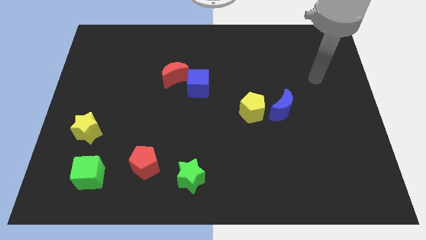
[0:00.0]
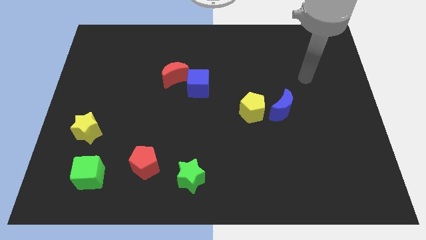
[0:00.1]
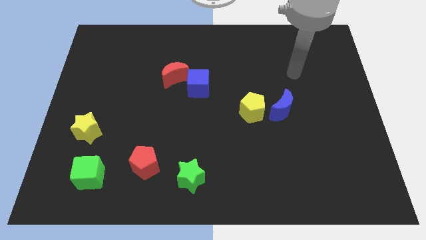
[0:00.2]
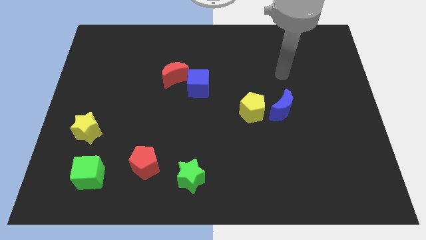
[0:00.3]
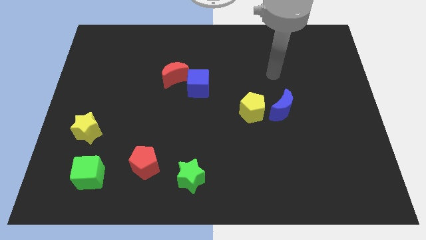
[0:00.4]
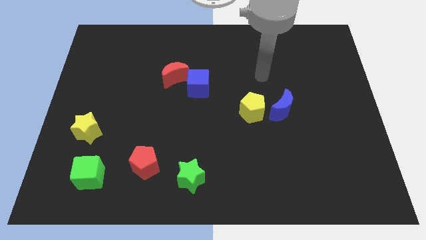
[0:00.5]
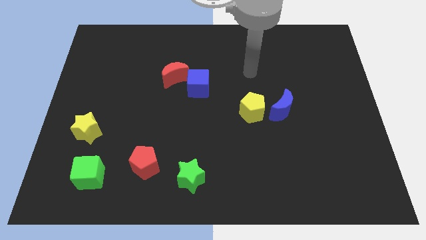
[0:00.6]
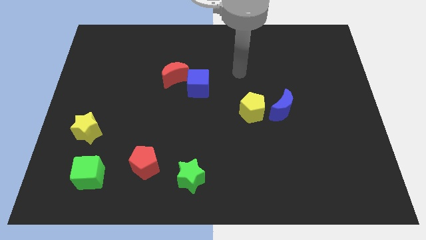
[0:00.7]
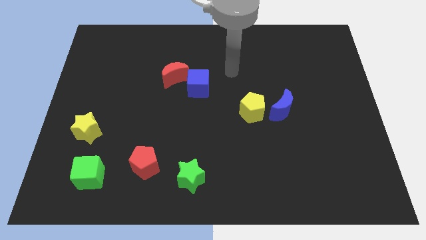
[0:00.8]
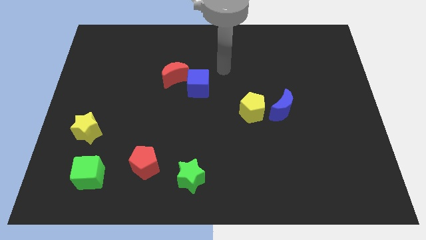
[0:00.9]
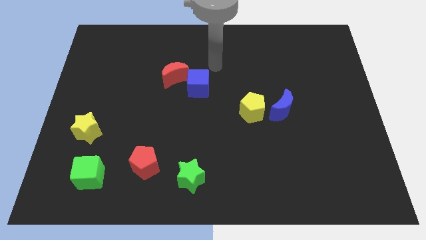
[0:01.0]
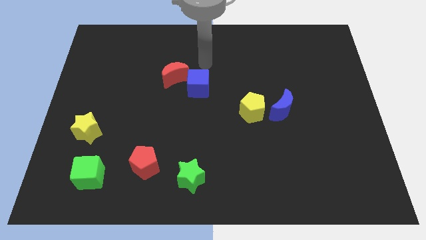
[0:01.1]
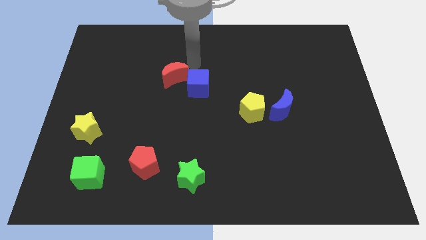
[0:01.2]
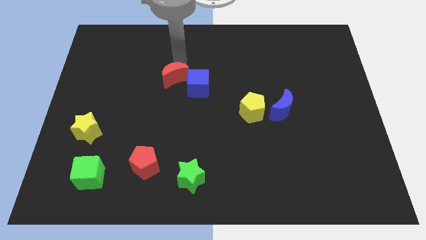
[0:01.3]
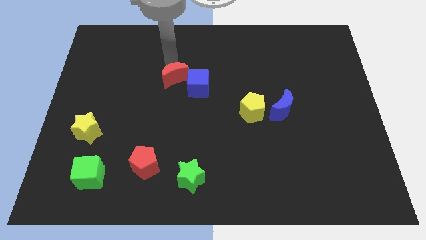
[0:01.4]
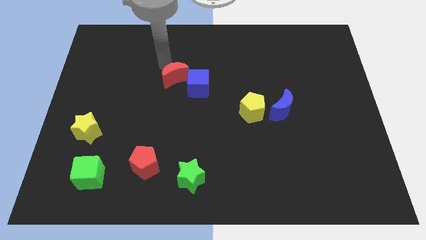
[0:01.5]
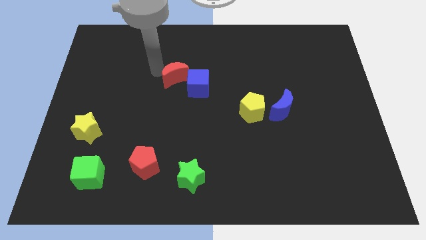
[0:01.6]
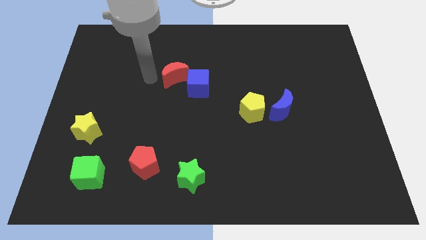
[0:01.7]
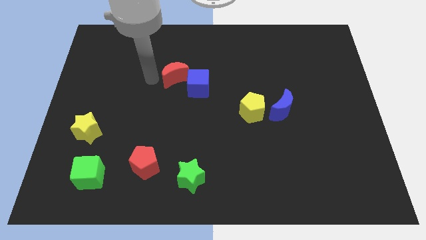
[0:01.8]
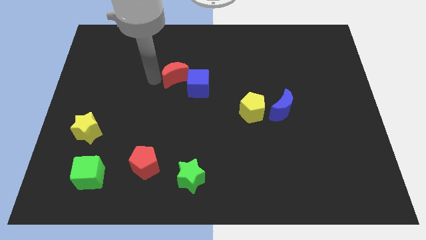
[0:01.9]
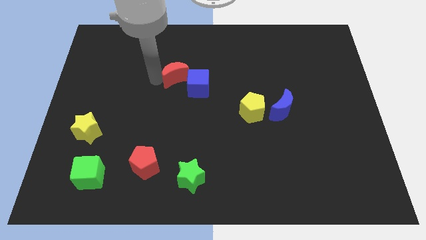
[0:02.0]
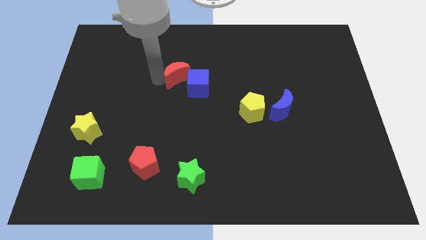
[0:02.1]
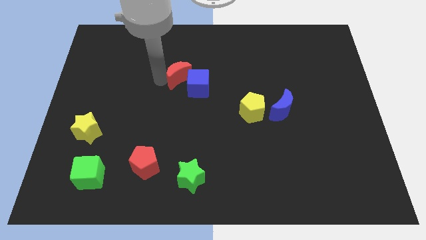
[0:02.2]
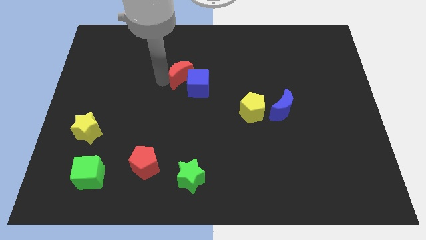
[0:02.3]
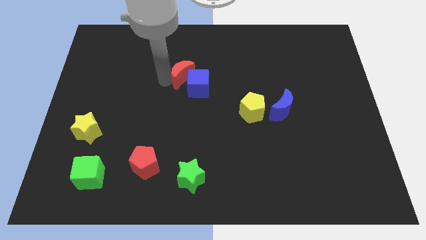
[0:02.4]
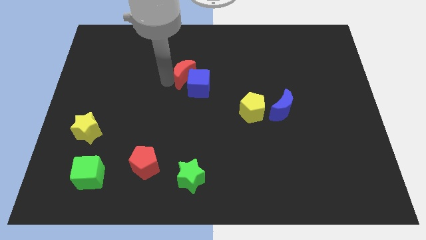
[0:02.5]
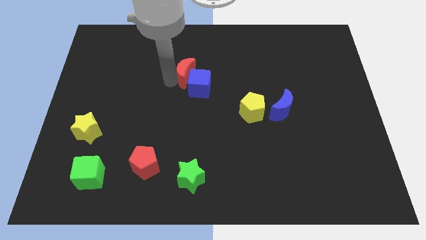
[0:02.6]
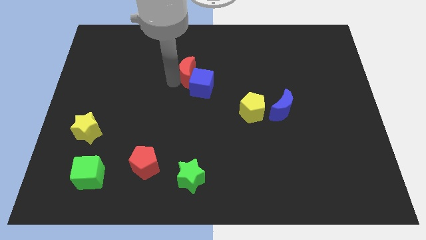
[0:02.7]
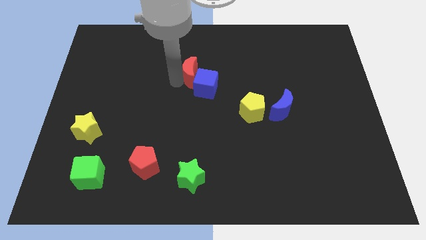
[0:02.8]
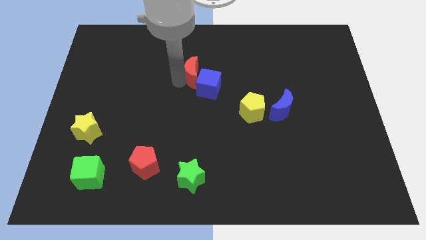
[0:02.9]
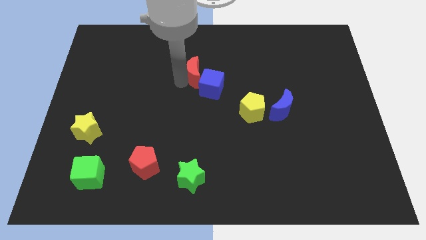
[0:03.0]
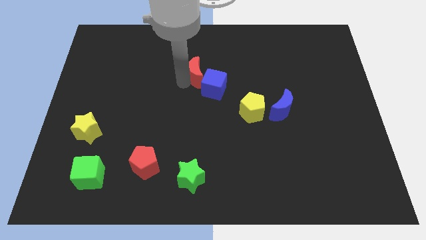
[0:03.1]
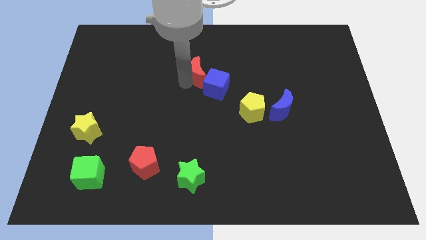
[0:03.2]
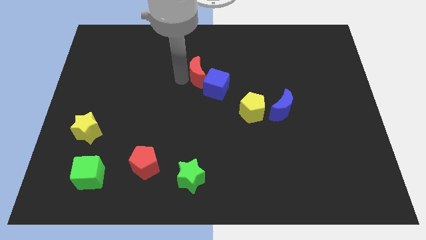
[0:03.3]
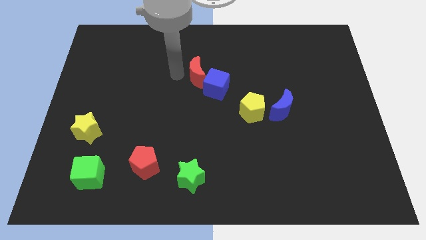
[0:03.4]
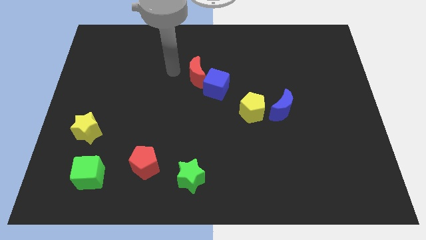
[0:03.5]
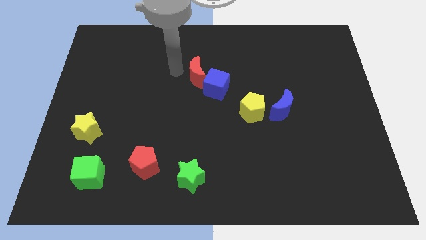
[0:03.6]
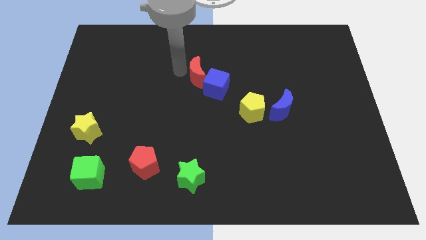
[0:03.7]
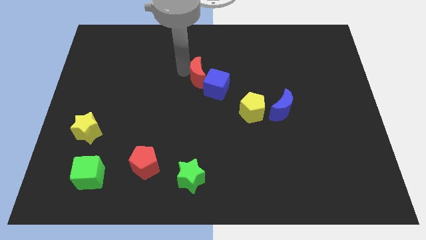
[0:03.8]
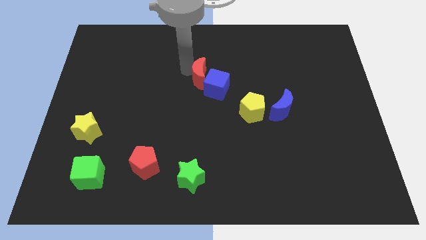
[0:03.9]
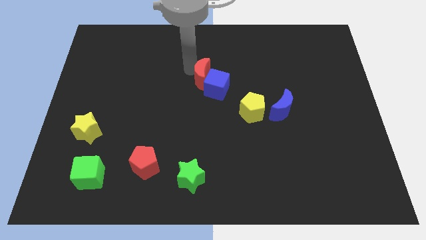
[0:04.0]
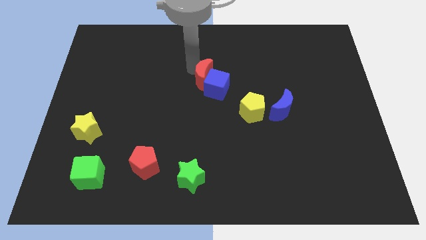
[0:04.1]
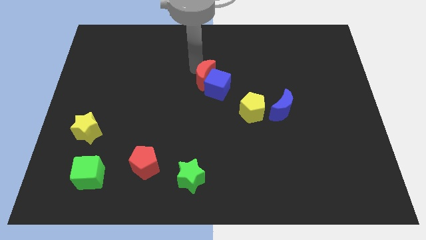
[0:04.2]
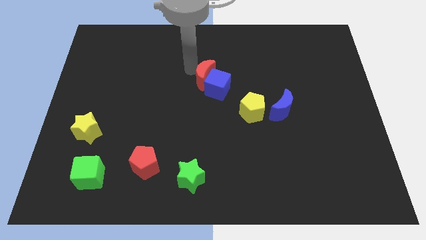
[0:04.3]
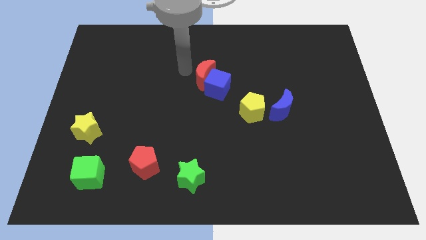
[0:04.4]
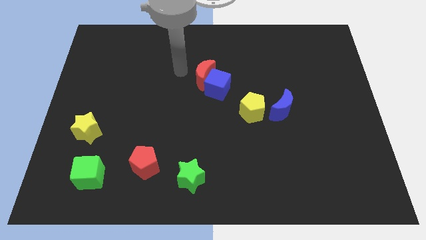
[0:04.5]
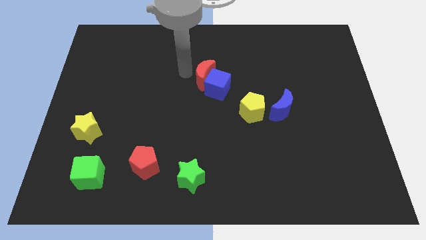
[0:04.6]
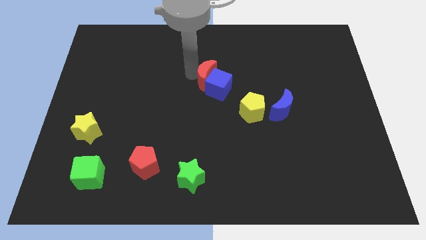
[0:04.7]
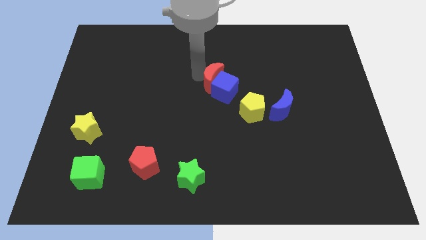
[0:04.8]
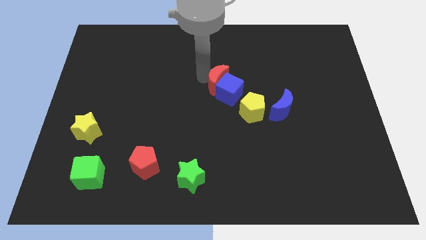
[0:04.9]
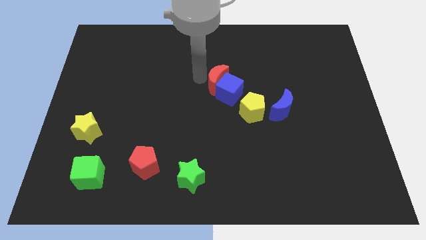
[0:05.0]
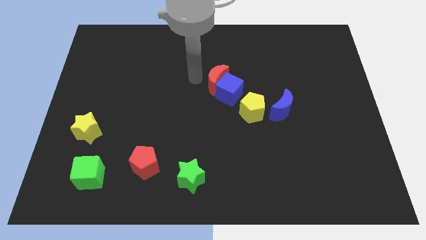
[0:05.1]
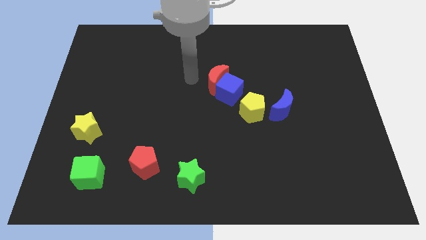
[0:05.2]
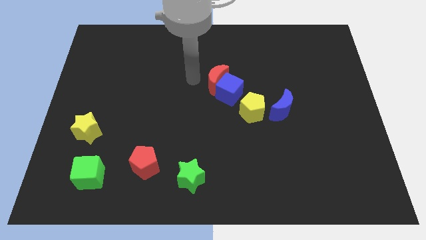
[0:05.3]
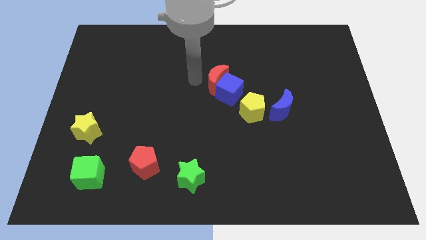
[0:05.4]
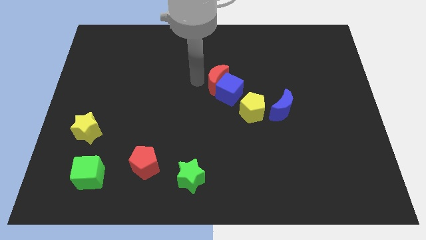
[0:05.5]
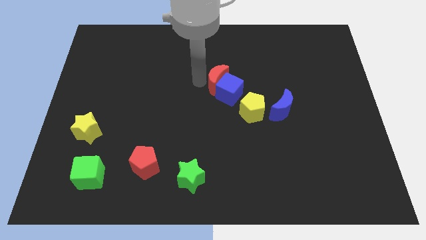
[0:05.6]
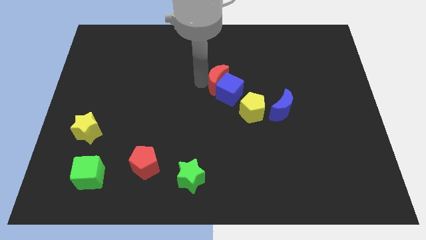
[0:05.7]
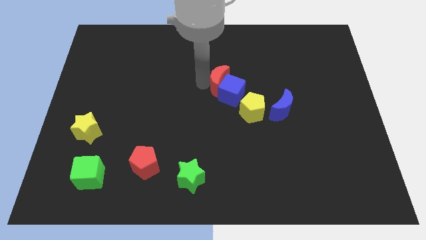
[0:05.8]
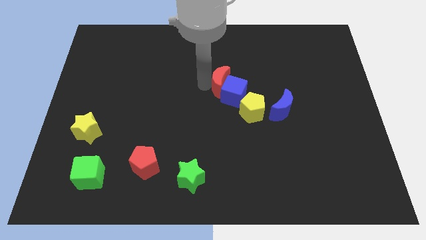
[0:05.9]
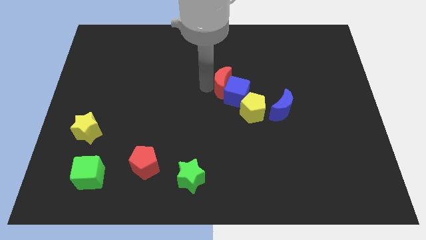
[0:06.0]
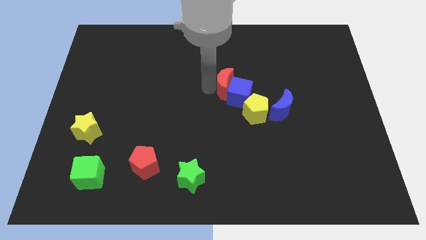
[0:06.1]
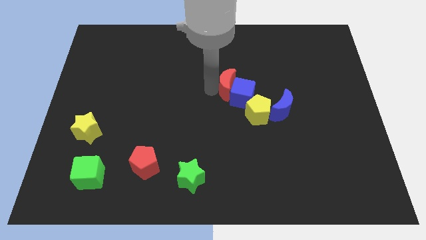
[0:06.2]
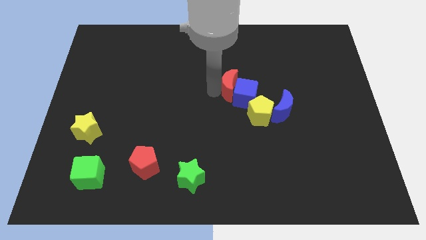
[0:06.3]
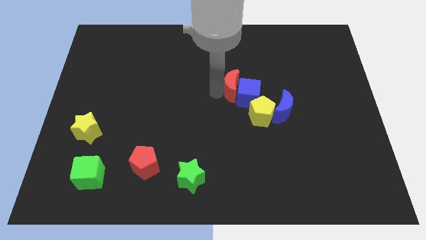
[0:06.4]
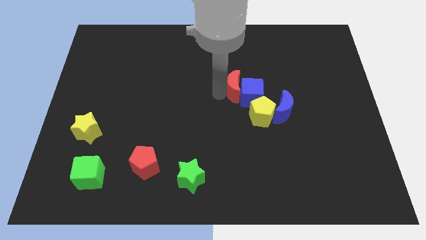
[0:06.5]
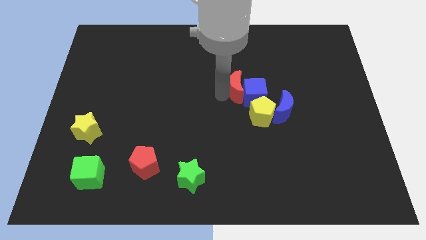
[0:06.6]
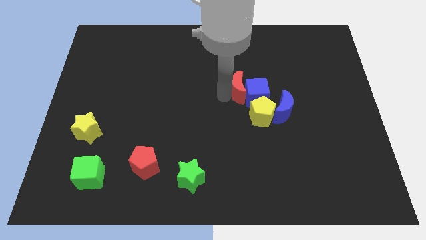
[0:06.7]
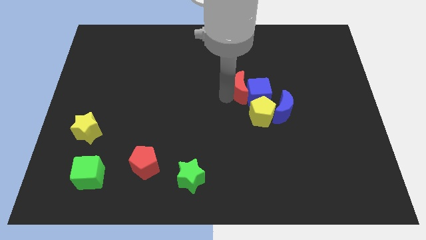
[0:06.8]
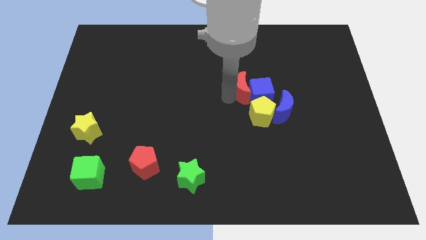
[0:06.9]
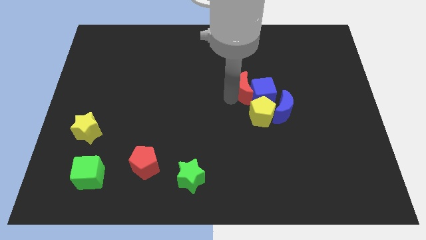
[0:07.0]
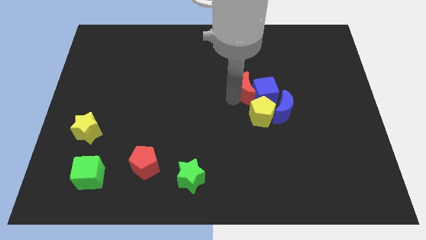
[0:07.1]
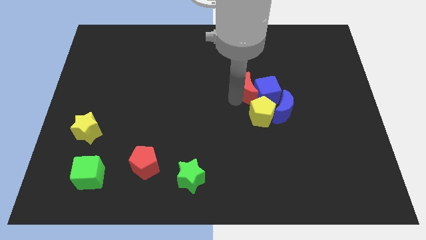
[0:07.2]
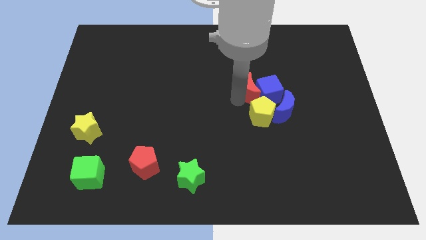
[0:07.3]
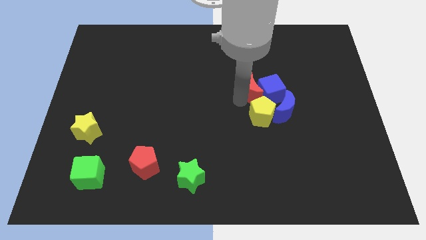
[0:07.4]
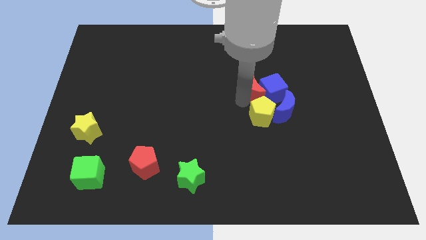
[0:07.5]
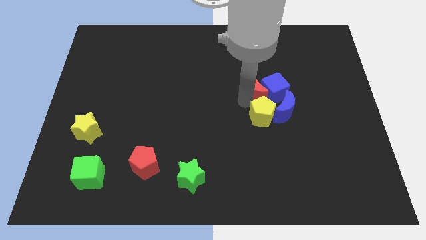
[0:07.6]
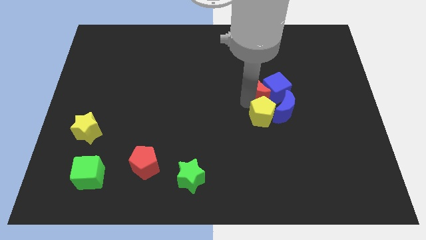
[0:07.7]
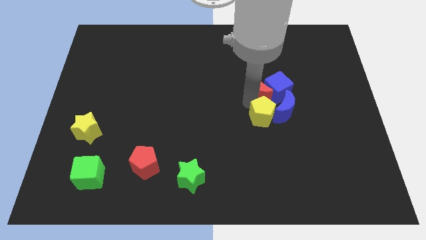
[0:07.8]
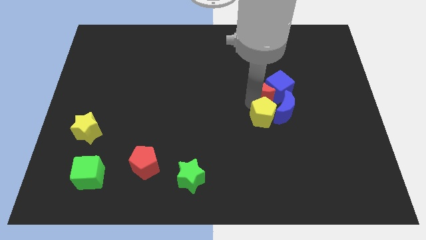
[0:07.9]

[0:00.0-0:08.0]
move the red moon right

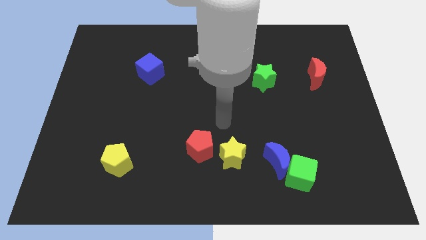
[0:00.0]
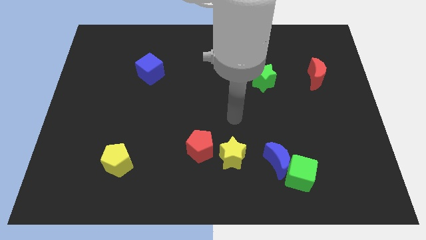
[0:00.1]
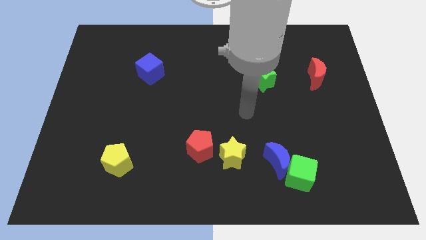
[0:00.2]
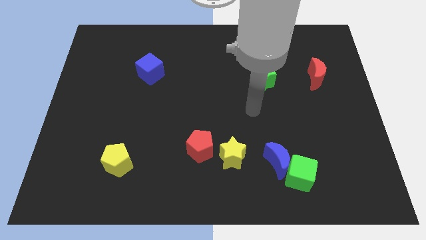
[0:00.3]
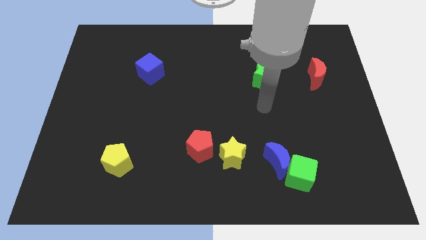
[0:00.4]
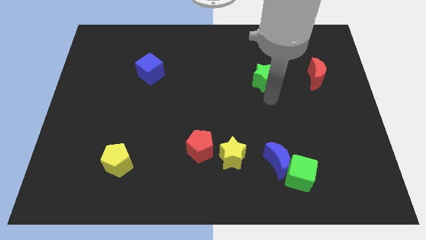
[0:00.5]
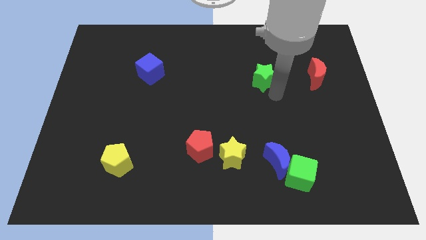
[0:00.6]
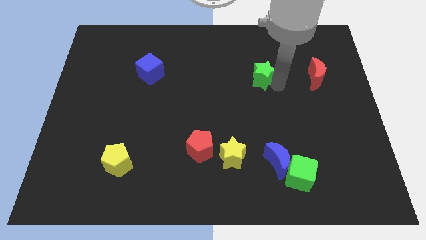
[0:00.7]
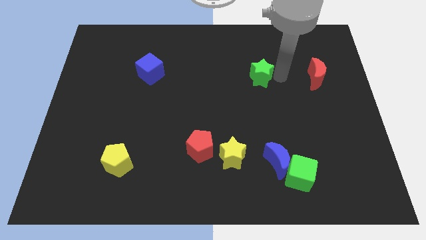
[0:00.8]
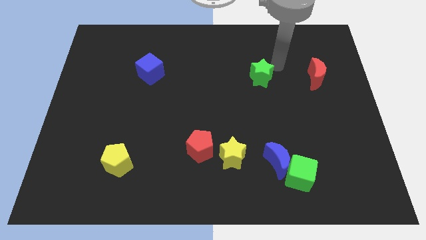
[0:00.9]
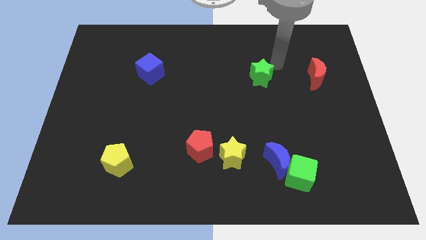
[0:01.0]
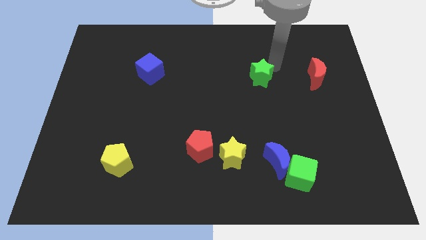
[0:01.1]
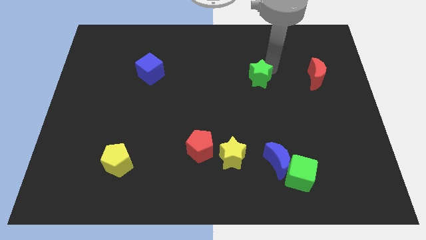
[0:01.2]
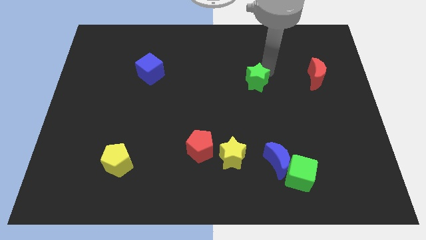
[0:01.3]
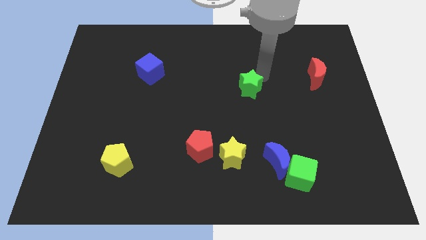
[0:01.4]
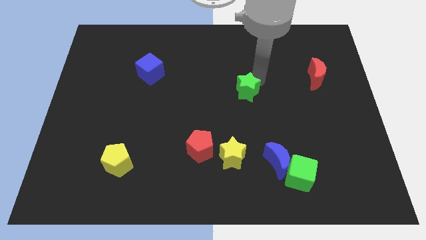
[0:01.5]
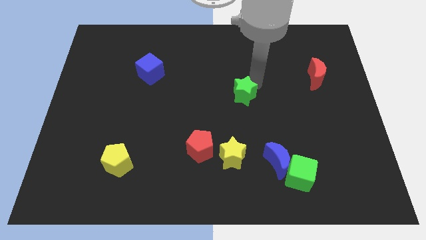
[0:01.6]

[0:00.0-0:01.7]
move the green star downwards and then to the left slightly
